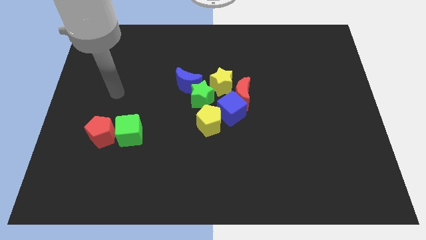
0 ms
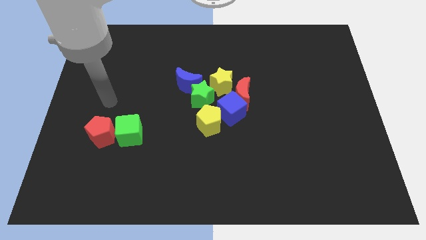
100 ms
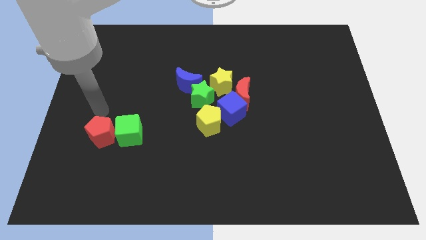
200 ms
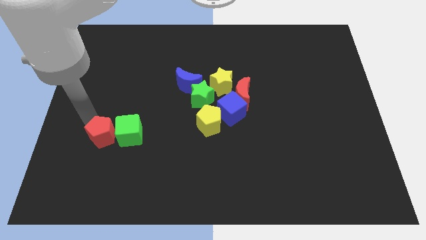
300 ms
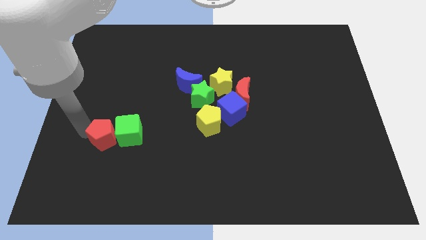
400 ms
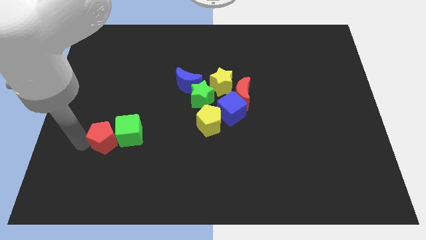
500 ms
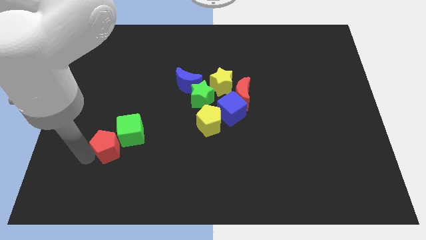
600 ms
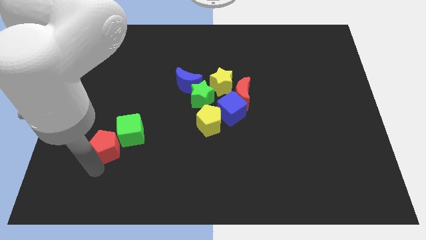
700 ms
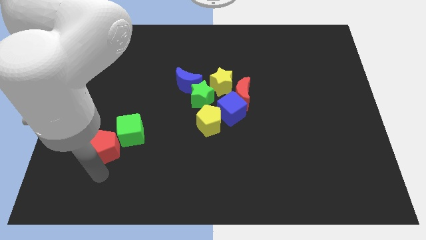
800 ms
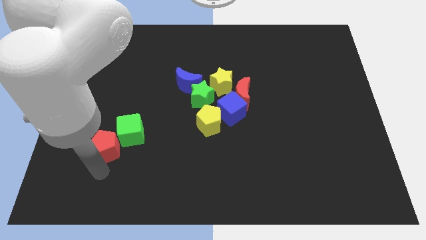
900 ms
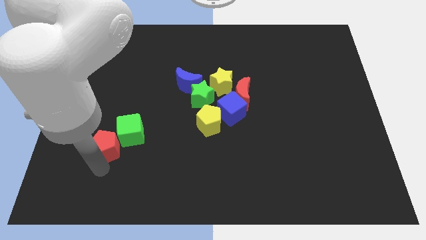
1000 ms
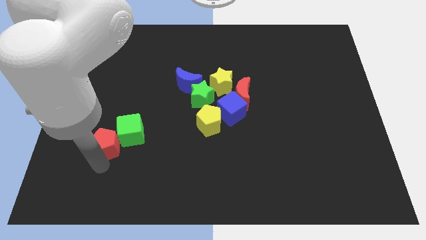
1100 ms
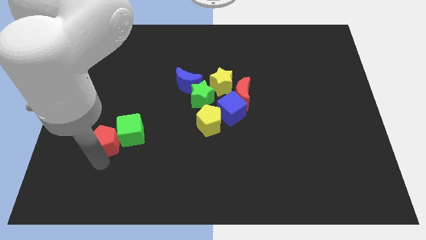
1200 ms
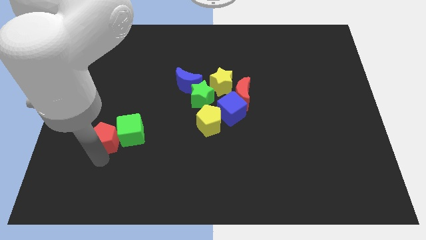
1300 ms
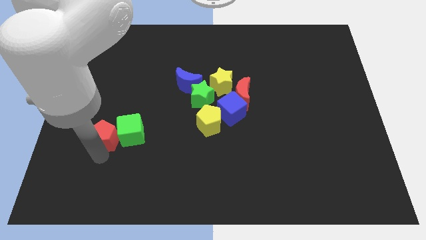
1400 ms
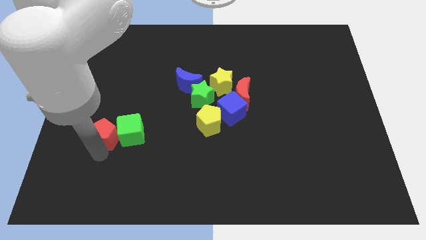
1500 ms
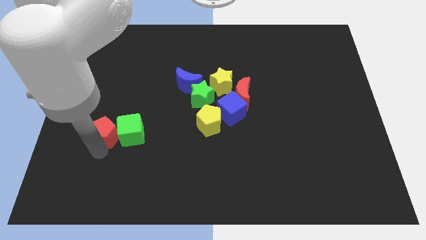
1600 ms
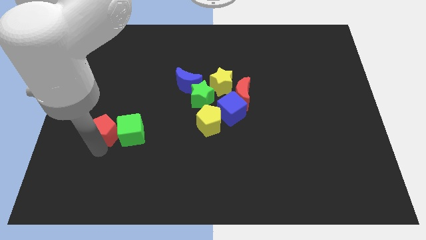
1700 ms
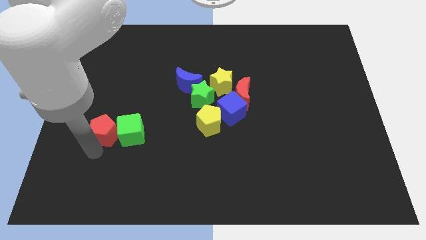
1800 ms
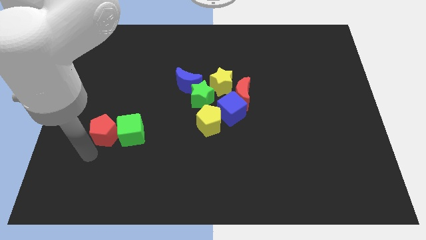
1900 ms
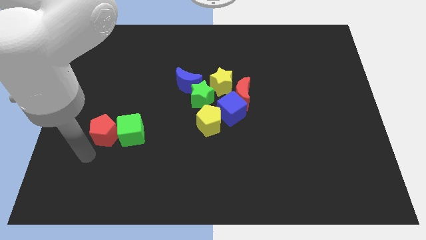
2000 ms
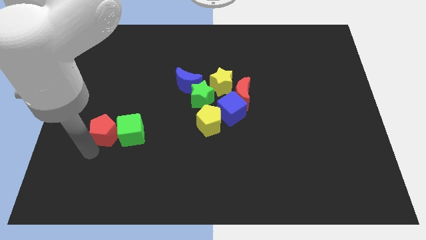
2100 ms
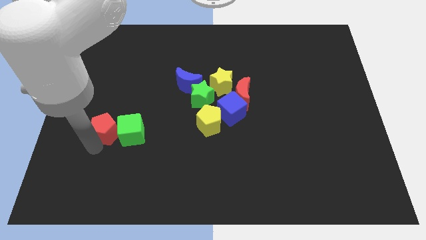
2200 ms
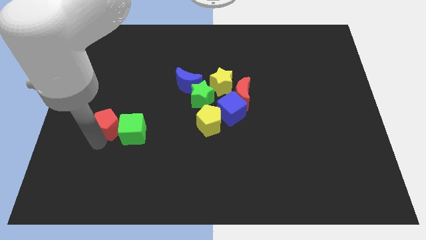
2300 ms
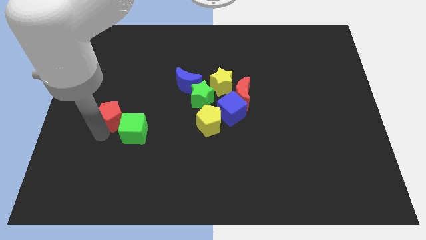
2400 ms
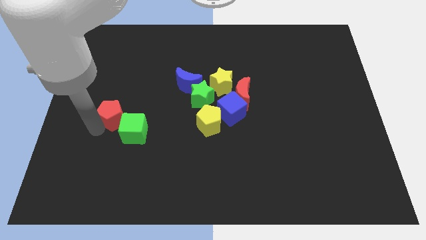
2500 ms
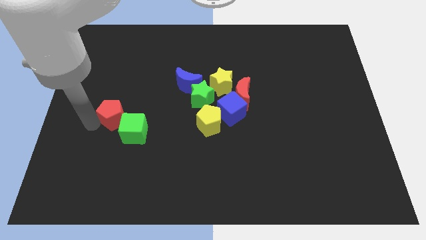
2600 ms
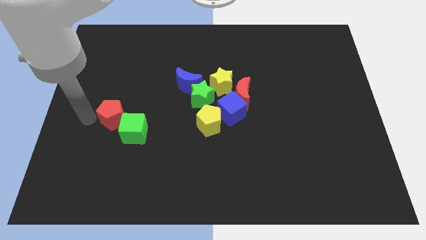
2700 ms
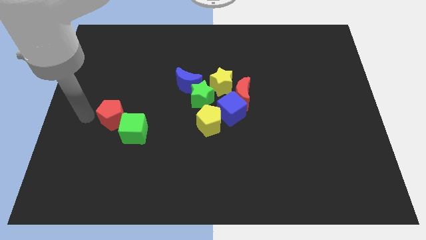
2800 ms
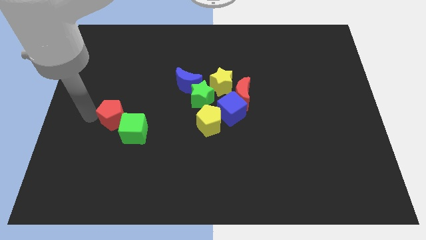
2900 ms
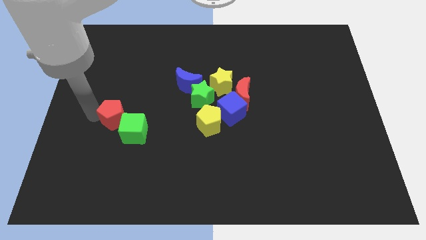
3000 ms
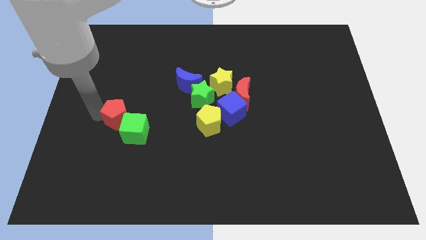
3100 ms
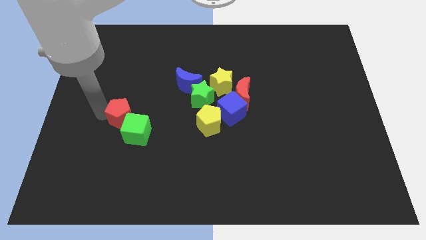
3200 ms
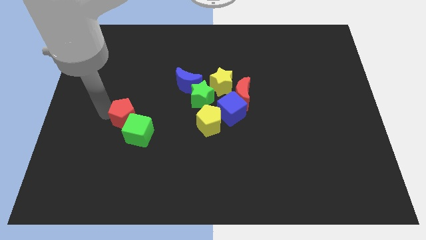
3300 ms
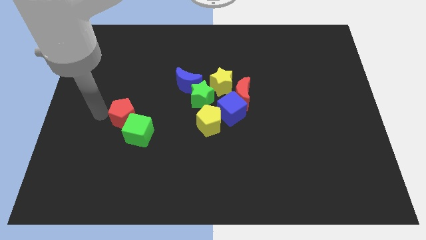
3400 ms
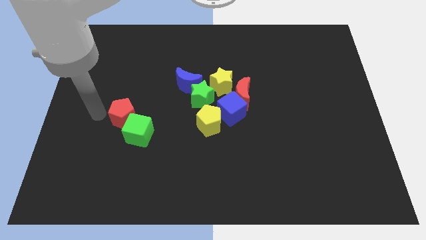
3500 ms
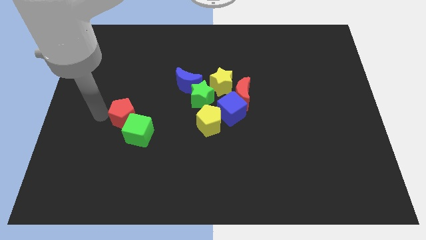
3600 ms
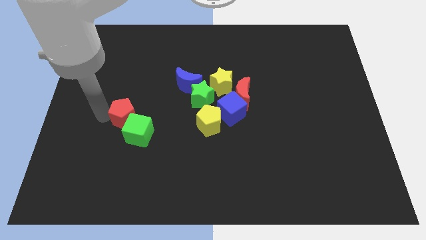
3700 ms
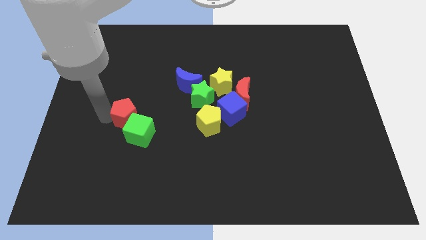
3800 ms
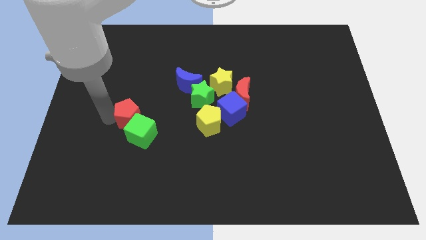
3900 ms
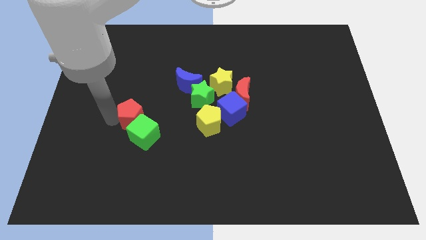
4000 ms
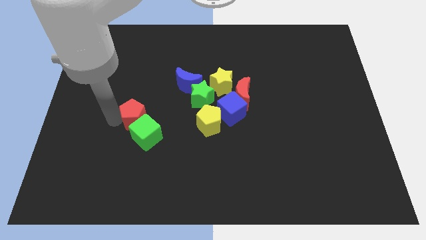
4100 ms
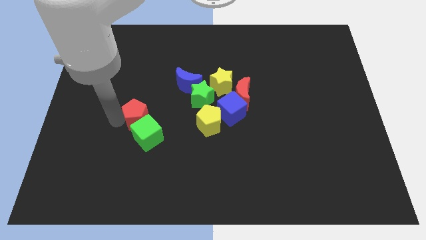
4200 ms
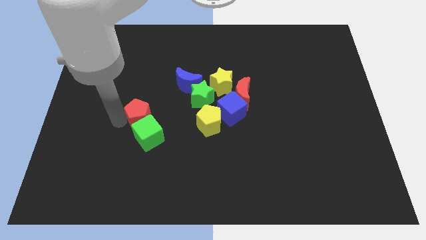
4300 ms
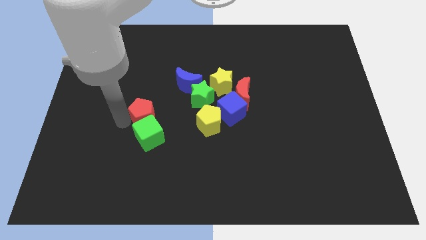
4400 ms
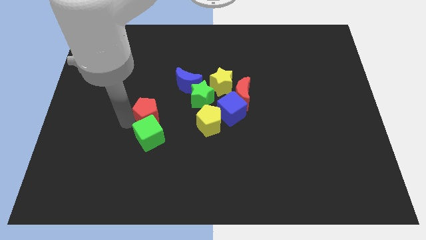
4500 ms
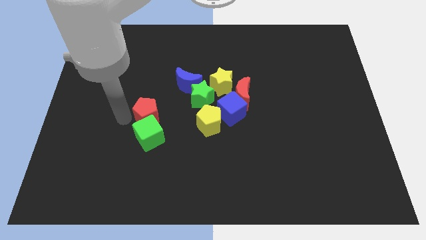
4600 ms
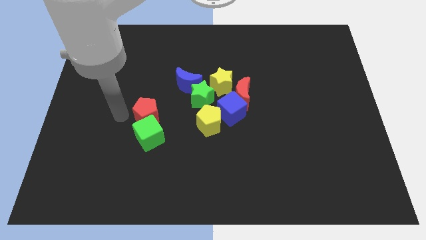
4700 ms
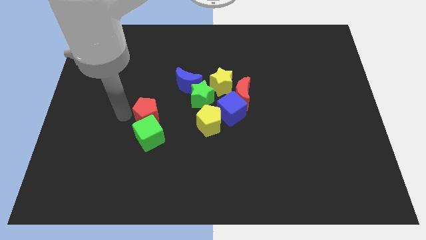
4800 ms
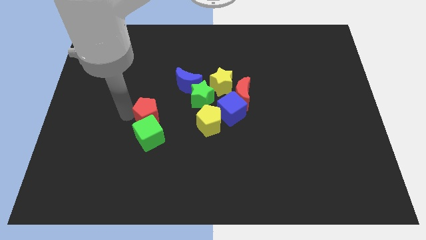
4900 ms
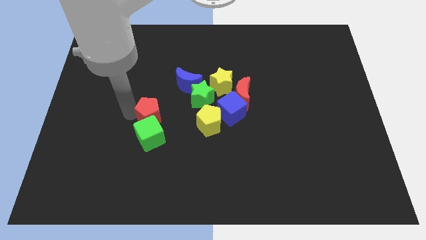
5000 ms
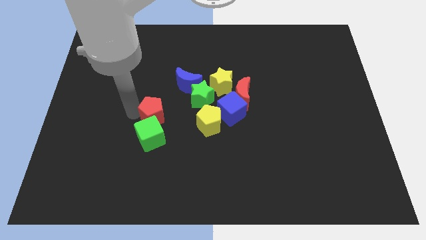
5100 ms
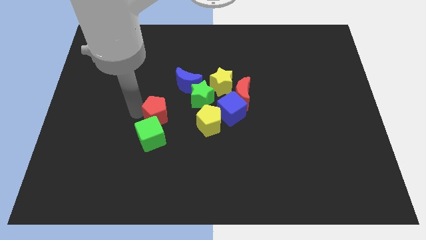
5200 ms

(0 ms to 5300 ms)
put the red pentagon to the bottom left side of the green star

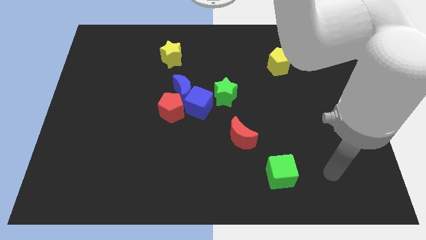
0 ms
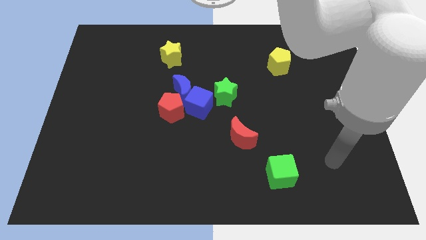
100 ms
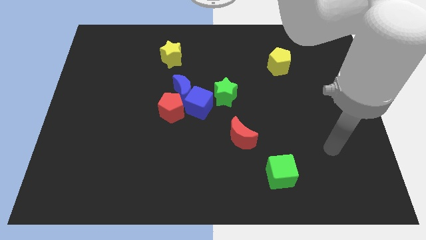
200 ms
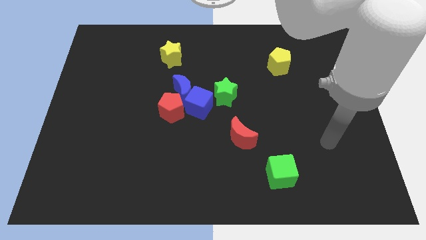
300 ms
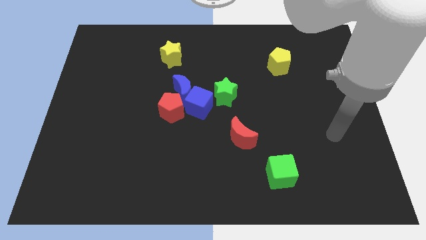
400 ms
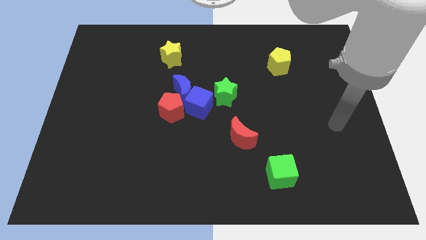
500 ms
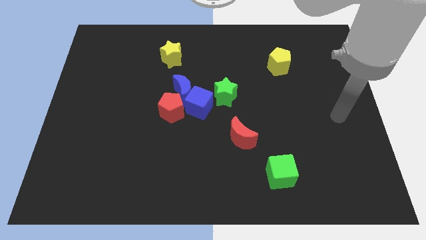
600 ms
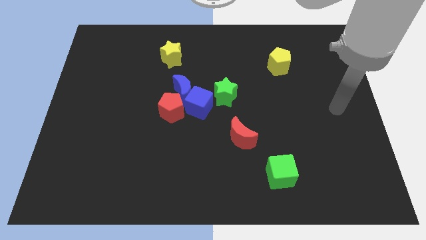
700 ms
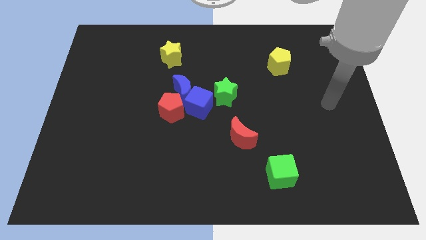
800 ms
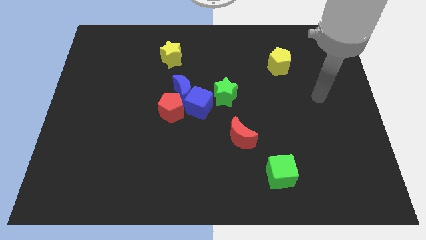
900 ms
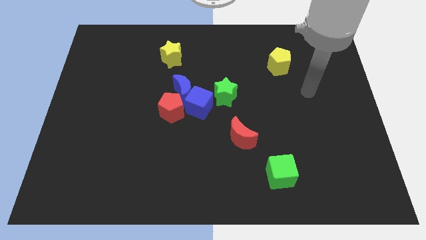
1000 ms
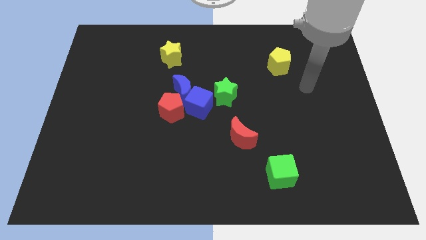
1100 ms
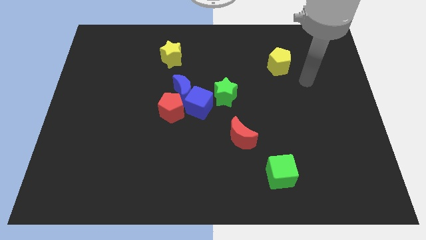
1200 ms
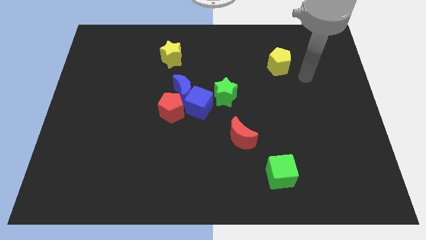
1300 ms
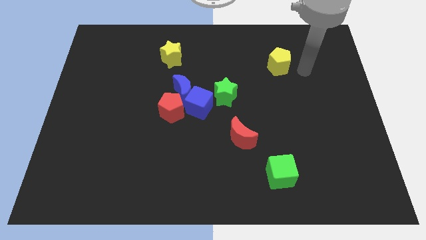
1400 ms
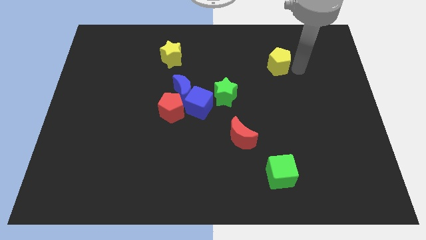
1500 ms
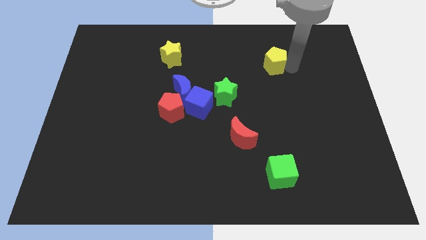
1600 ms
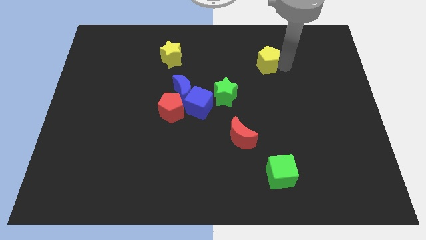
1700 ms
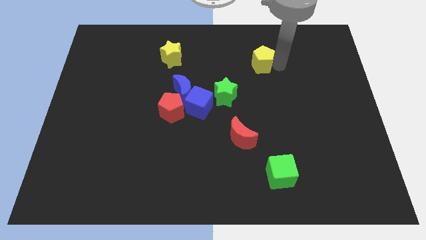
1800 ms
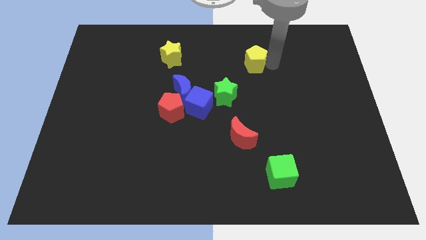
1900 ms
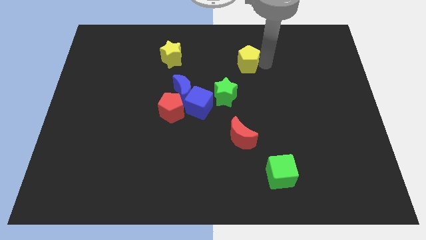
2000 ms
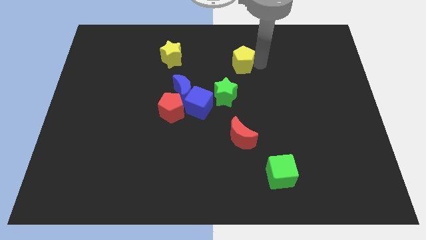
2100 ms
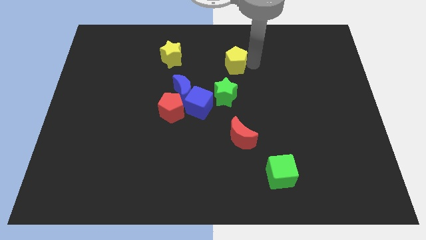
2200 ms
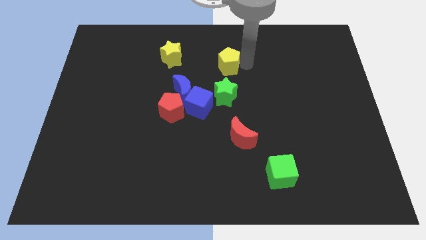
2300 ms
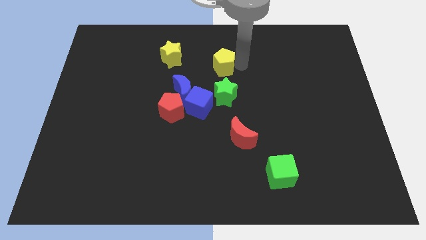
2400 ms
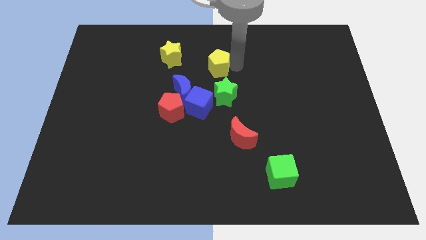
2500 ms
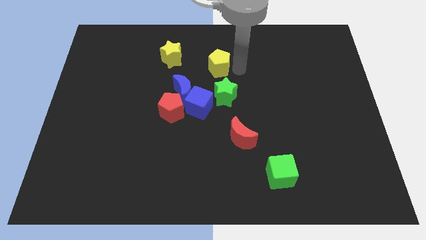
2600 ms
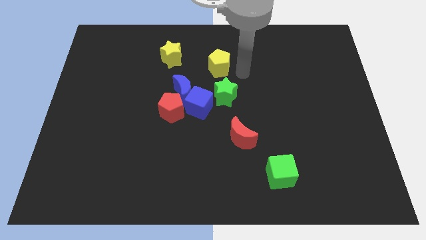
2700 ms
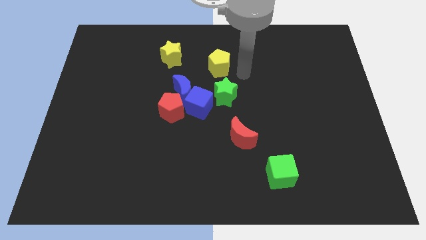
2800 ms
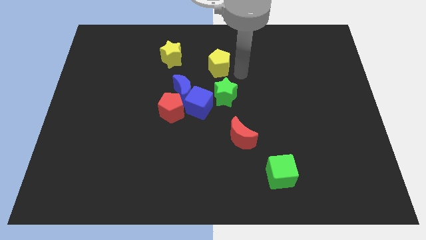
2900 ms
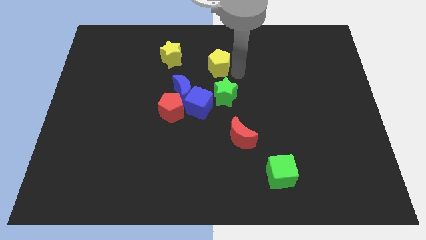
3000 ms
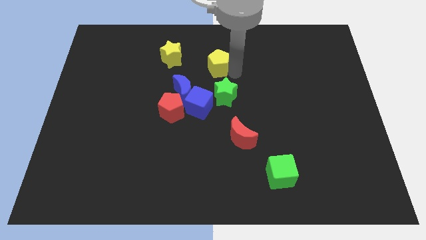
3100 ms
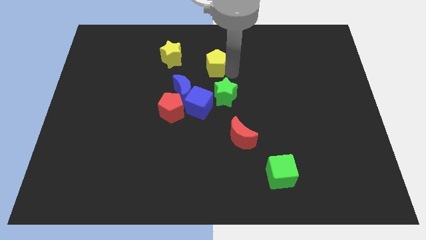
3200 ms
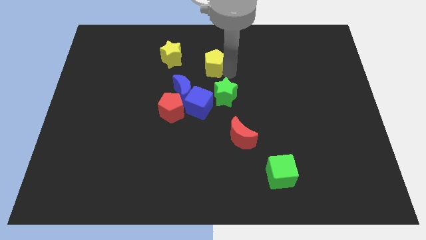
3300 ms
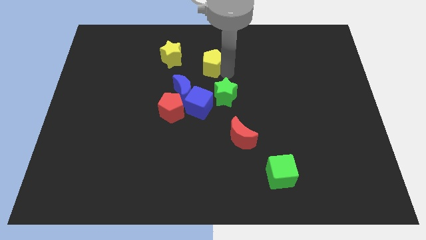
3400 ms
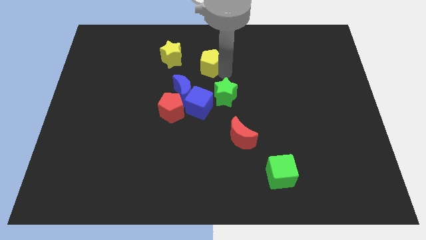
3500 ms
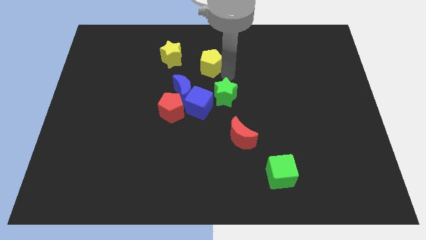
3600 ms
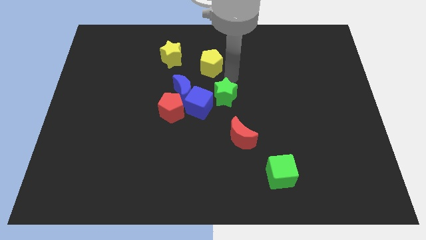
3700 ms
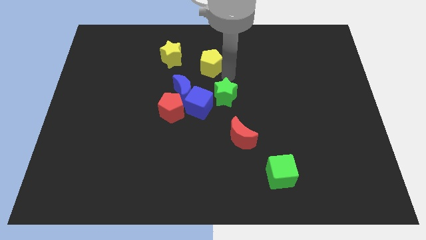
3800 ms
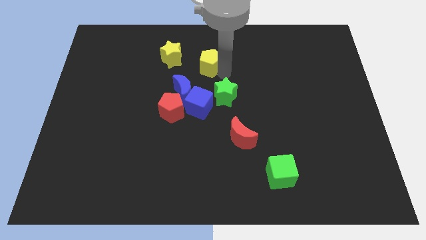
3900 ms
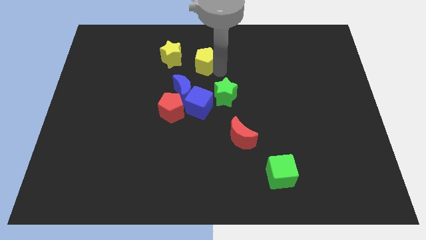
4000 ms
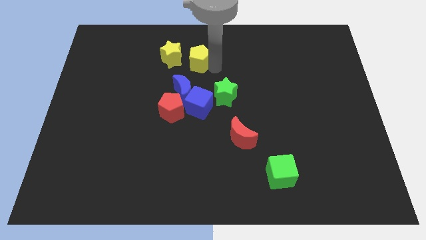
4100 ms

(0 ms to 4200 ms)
put the yellow pentagon to the top side of the blue moon
